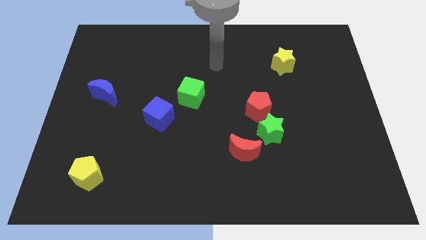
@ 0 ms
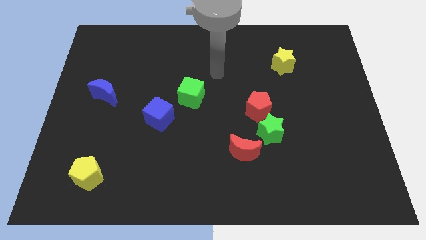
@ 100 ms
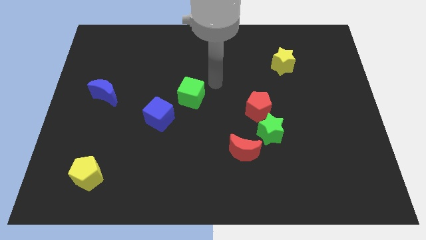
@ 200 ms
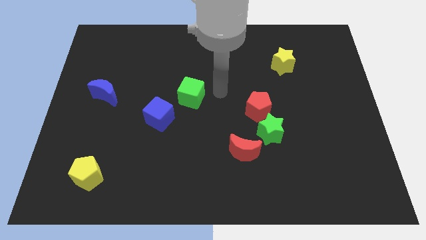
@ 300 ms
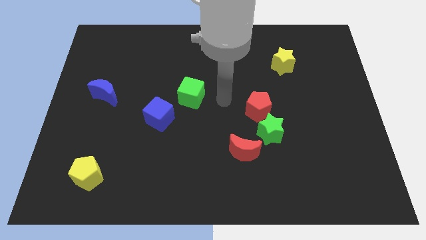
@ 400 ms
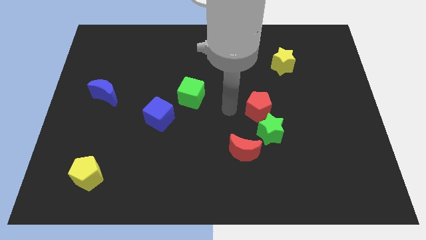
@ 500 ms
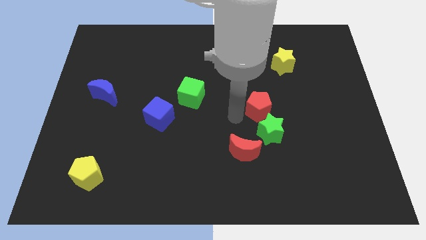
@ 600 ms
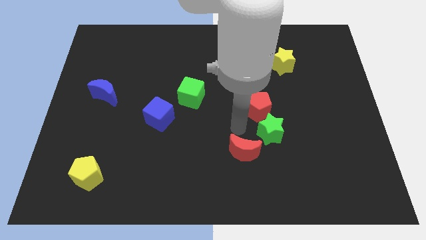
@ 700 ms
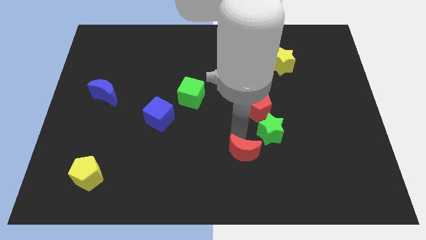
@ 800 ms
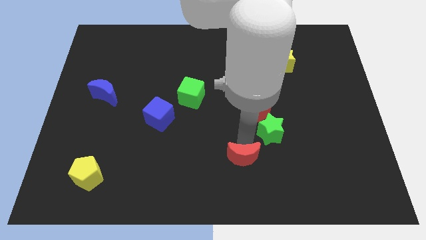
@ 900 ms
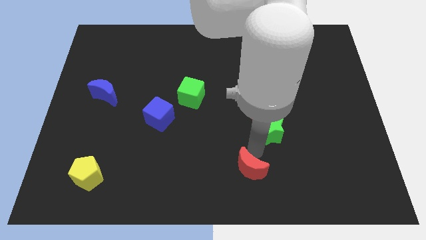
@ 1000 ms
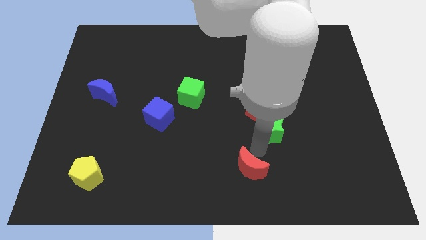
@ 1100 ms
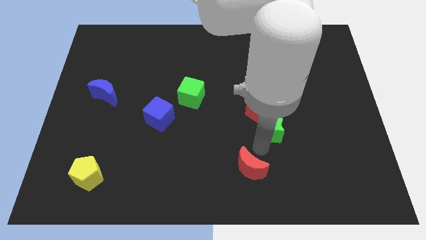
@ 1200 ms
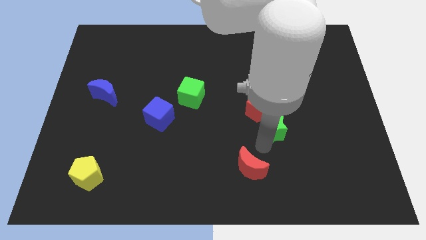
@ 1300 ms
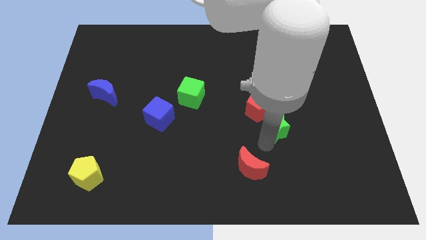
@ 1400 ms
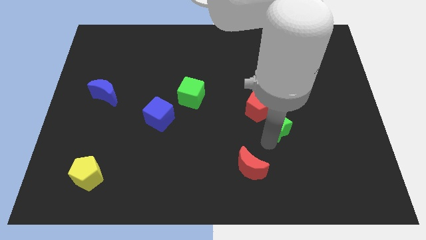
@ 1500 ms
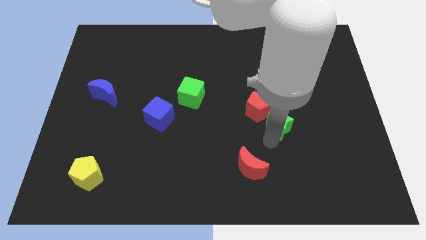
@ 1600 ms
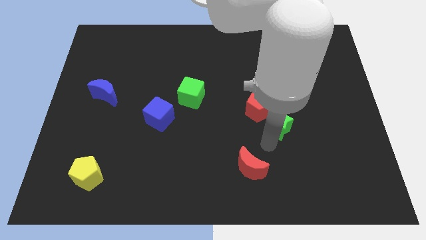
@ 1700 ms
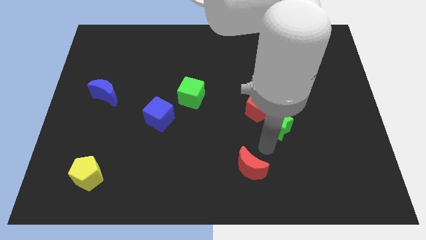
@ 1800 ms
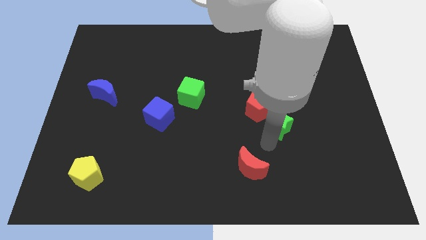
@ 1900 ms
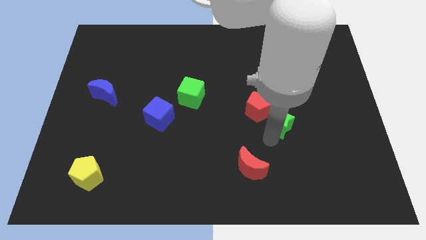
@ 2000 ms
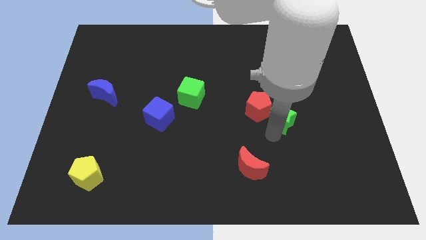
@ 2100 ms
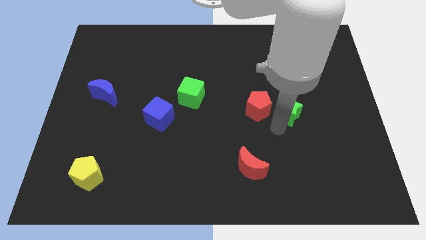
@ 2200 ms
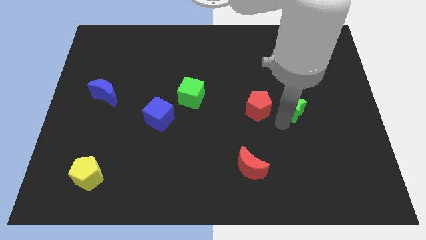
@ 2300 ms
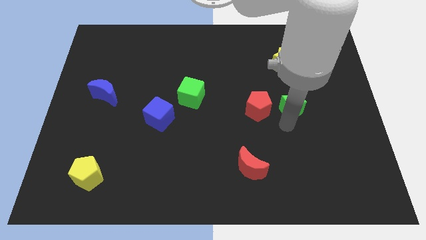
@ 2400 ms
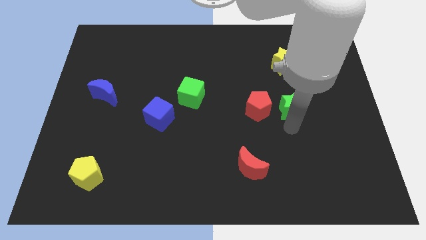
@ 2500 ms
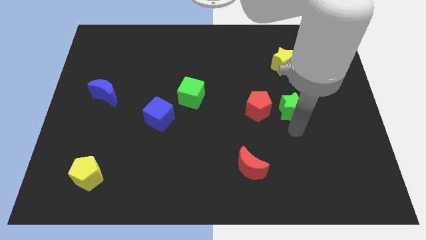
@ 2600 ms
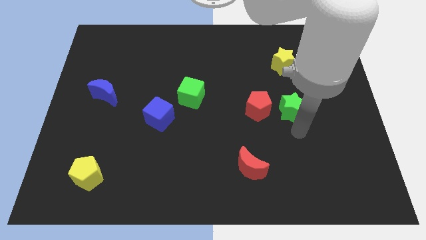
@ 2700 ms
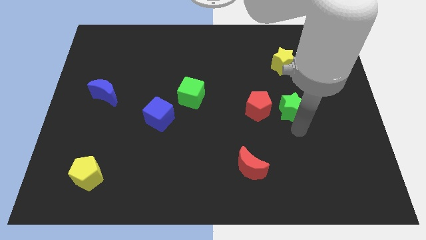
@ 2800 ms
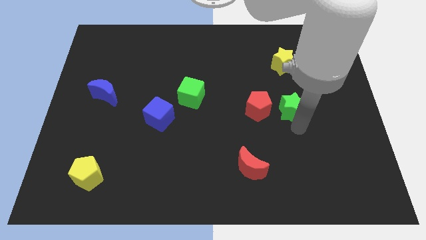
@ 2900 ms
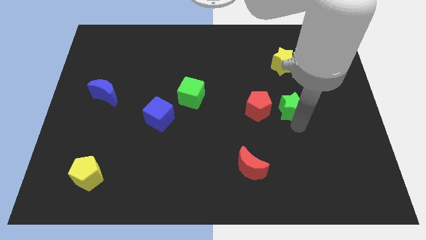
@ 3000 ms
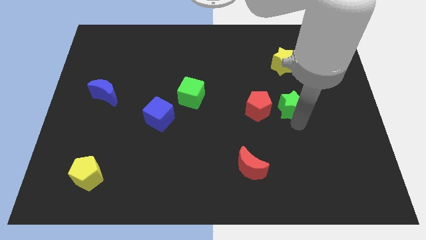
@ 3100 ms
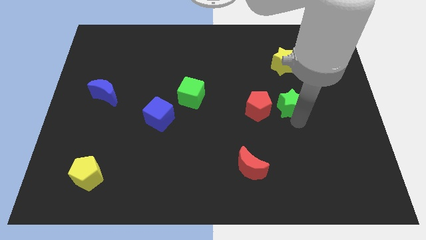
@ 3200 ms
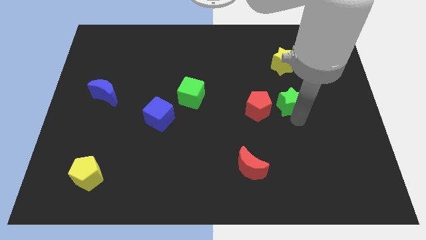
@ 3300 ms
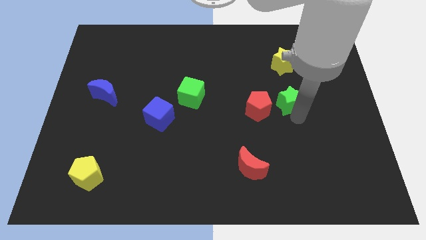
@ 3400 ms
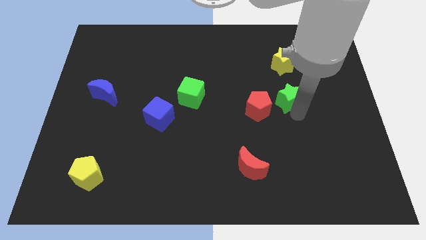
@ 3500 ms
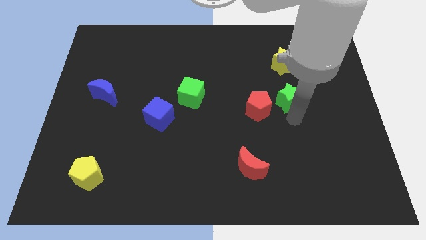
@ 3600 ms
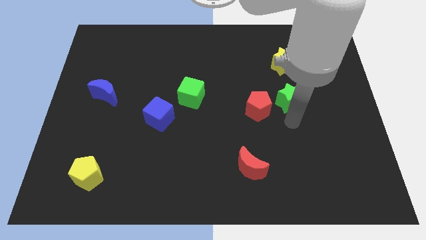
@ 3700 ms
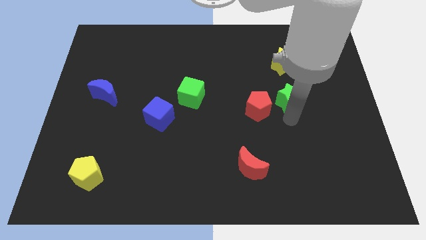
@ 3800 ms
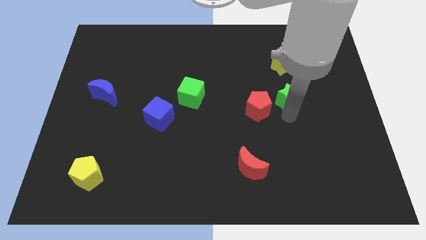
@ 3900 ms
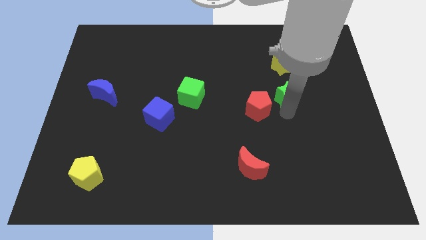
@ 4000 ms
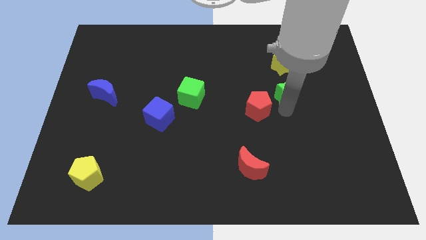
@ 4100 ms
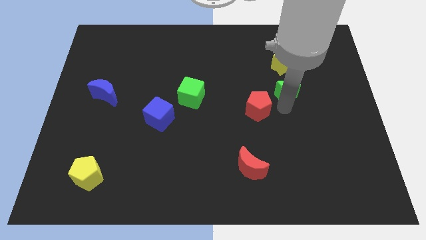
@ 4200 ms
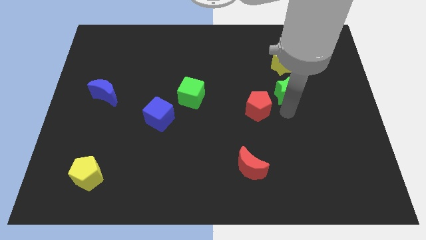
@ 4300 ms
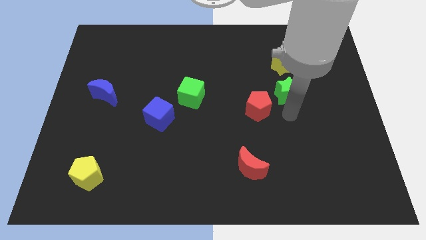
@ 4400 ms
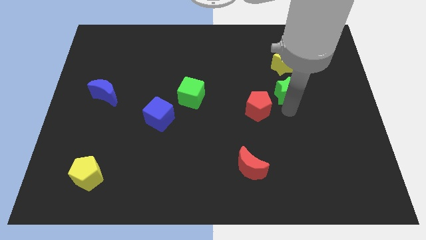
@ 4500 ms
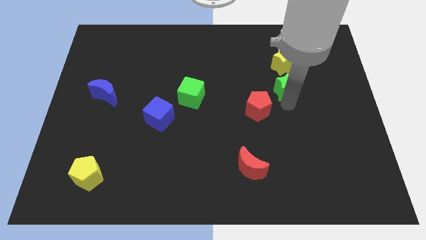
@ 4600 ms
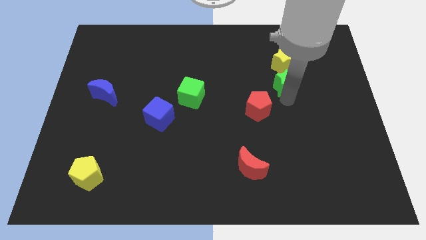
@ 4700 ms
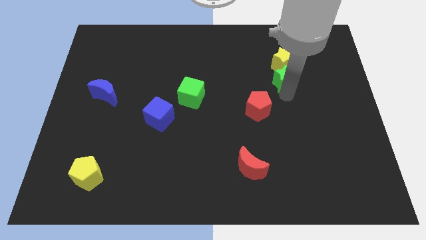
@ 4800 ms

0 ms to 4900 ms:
push the green star to the yellow star

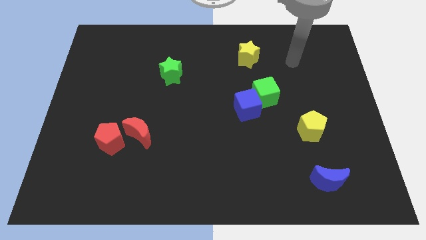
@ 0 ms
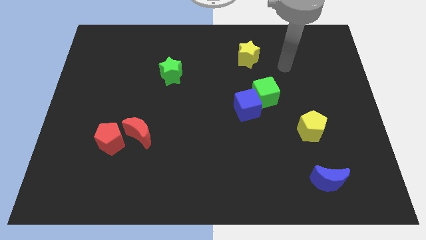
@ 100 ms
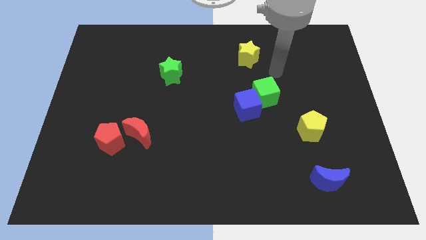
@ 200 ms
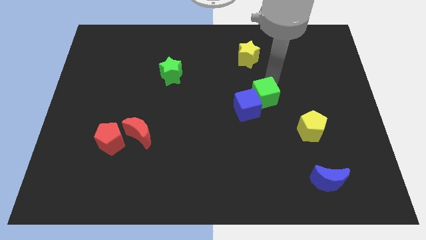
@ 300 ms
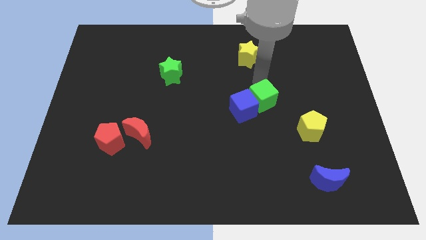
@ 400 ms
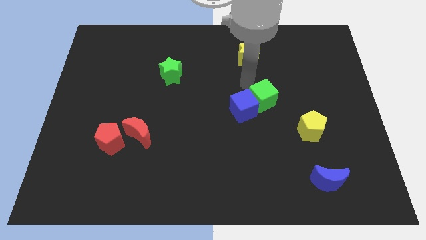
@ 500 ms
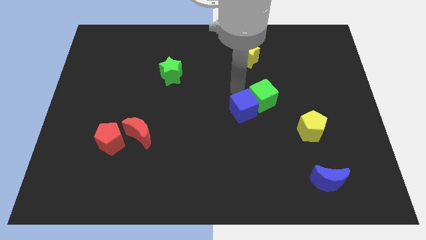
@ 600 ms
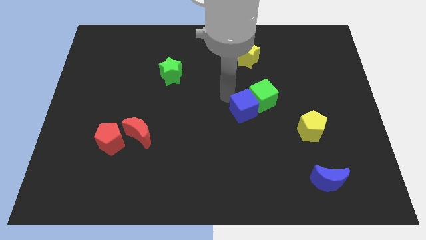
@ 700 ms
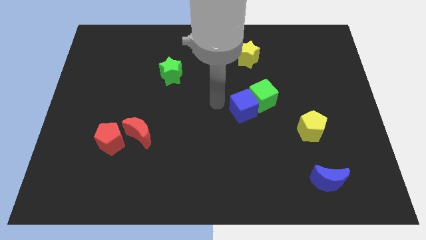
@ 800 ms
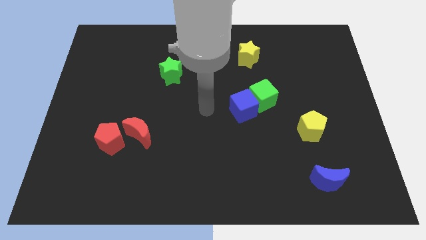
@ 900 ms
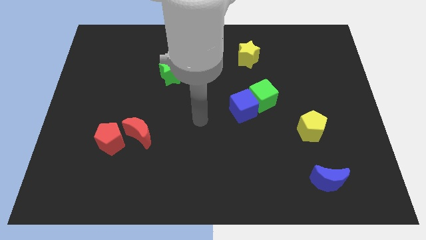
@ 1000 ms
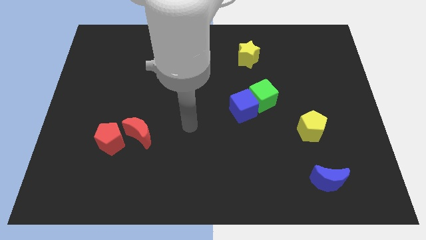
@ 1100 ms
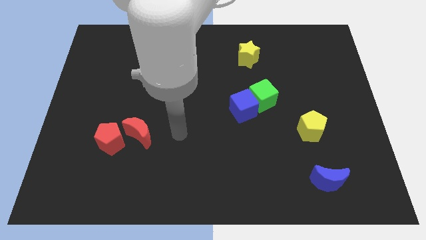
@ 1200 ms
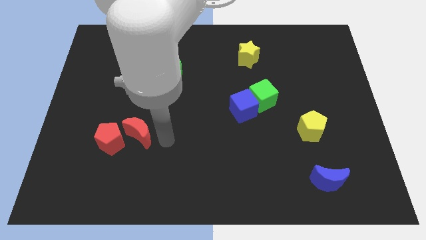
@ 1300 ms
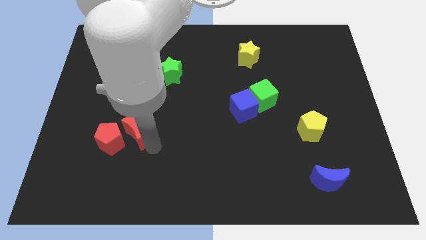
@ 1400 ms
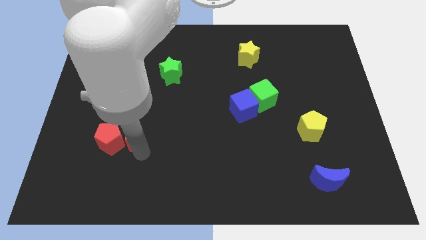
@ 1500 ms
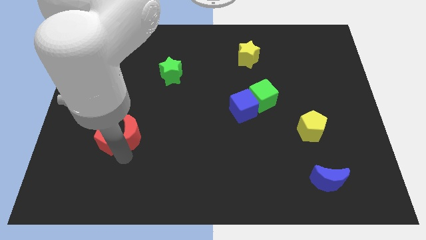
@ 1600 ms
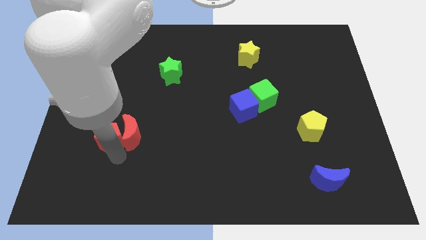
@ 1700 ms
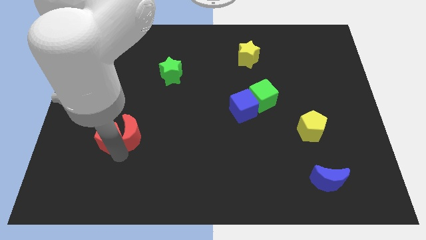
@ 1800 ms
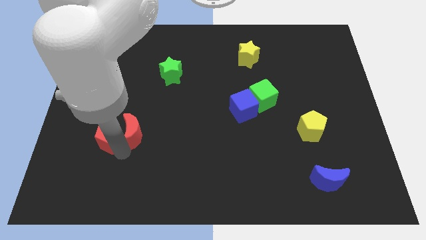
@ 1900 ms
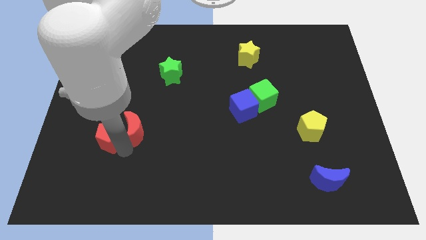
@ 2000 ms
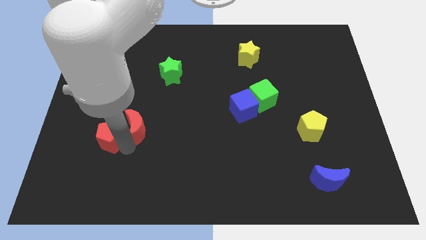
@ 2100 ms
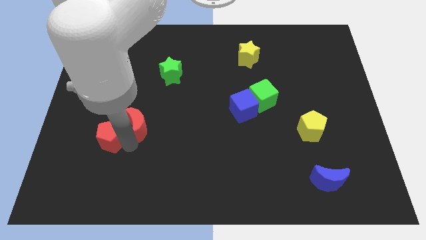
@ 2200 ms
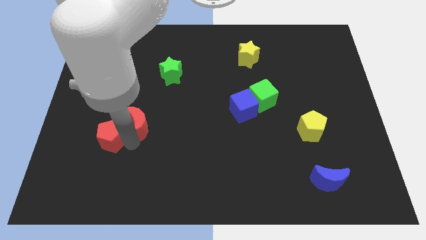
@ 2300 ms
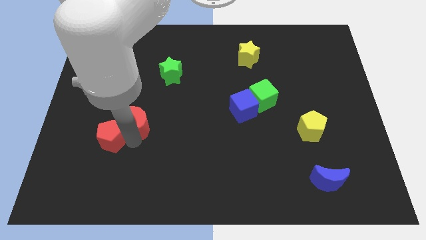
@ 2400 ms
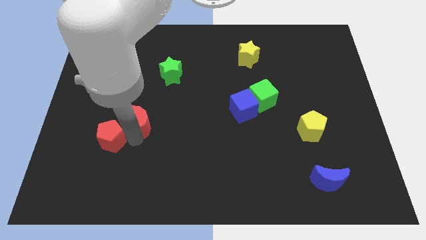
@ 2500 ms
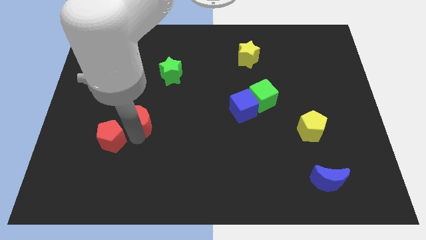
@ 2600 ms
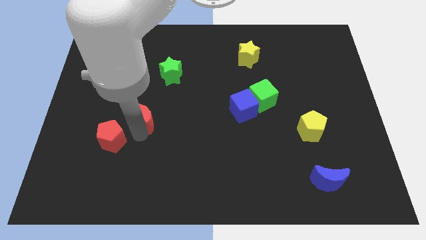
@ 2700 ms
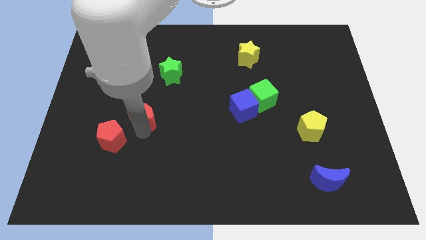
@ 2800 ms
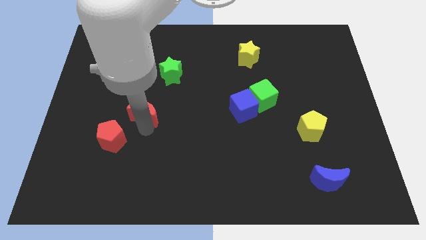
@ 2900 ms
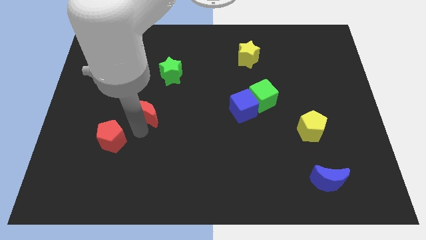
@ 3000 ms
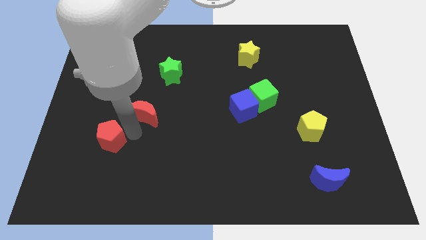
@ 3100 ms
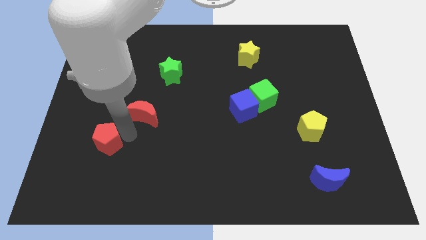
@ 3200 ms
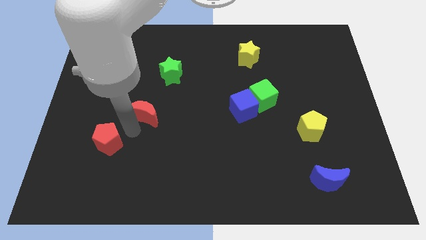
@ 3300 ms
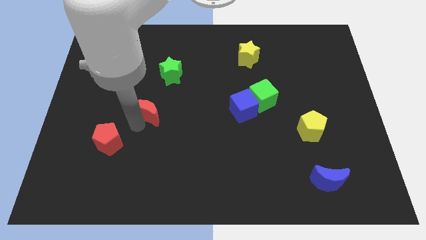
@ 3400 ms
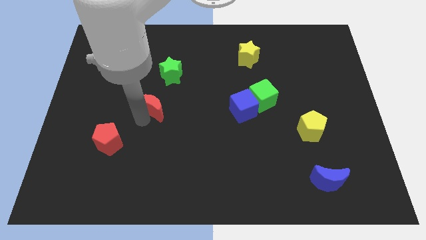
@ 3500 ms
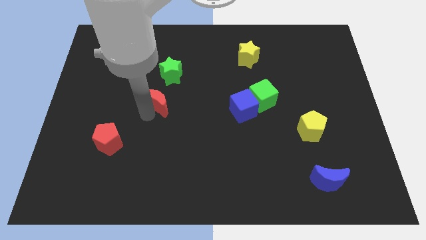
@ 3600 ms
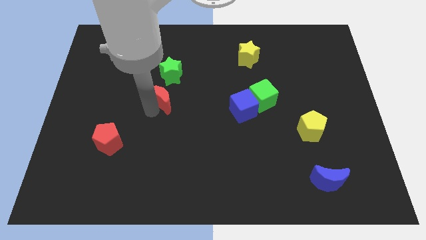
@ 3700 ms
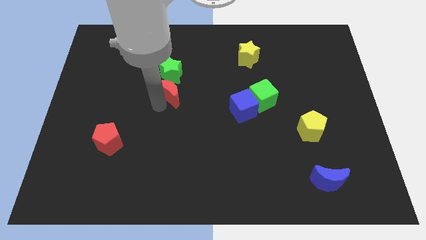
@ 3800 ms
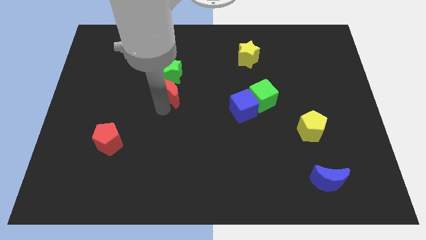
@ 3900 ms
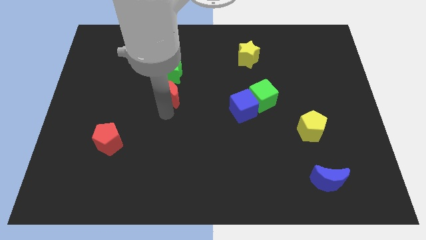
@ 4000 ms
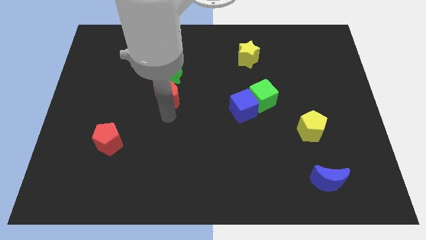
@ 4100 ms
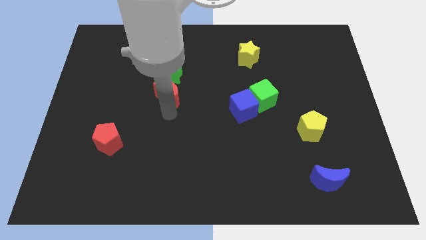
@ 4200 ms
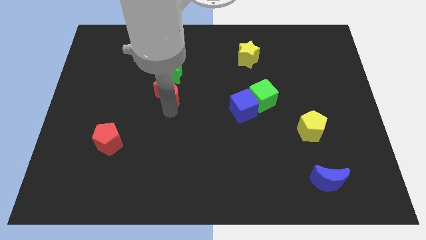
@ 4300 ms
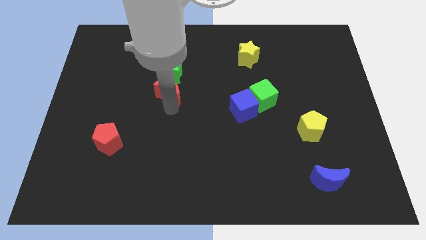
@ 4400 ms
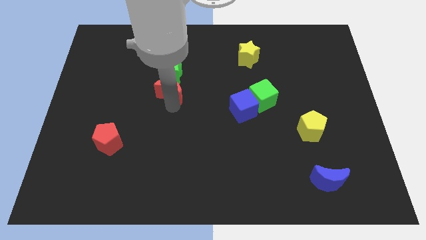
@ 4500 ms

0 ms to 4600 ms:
put the red moon close to the green star
